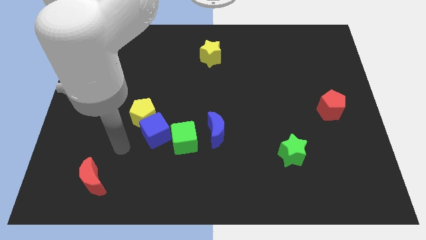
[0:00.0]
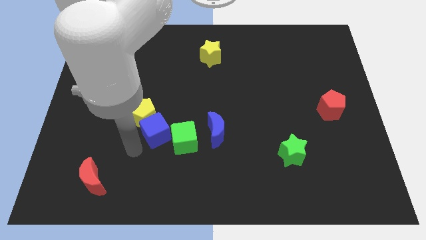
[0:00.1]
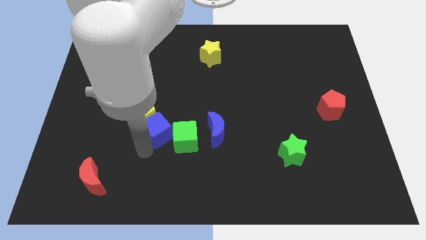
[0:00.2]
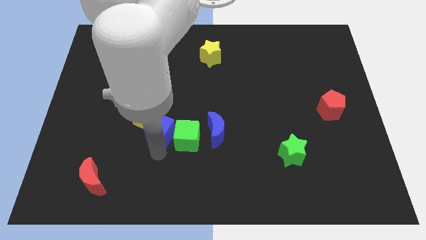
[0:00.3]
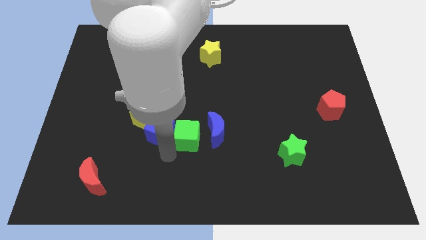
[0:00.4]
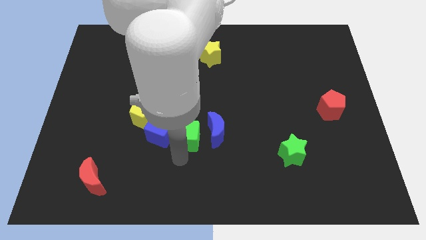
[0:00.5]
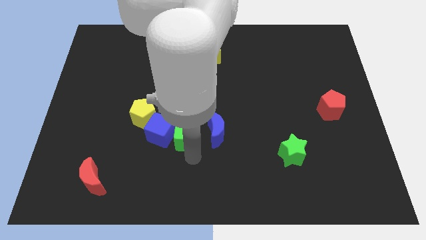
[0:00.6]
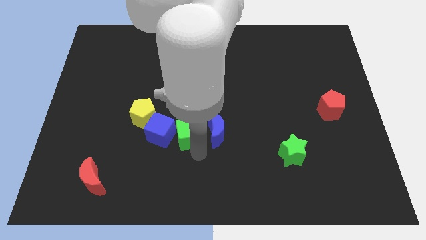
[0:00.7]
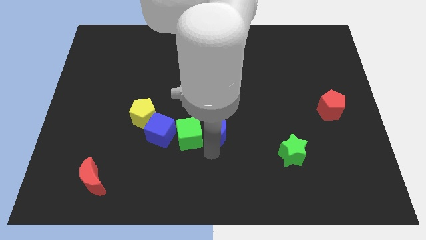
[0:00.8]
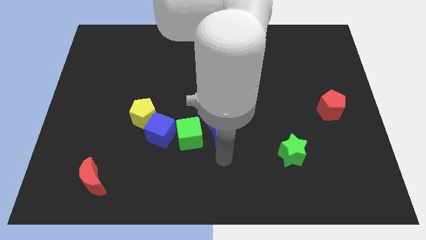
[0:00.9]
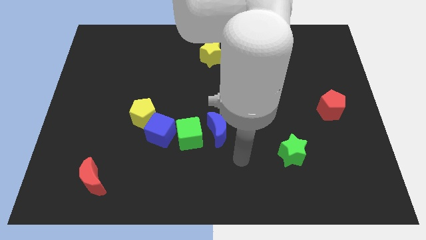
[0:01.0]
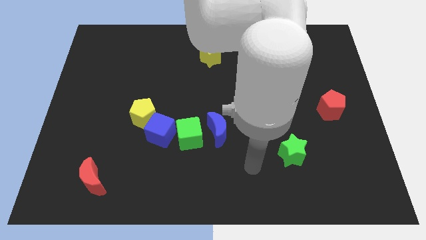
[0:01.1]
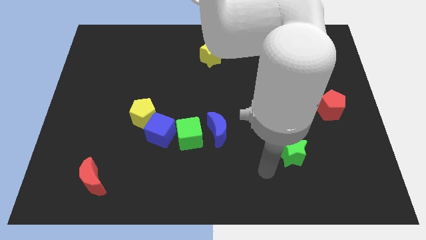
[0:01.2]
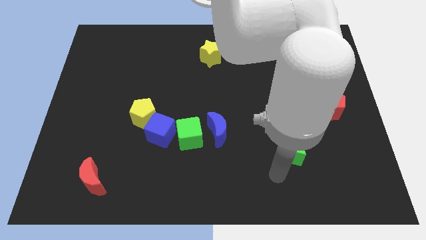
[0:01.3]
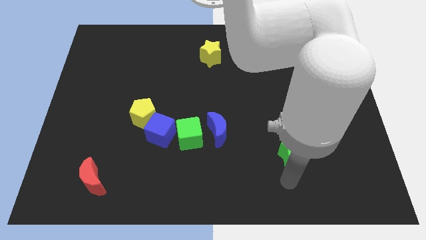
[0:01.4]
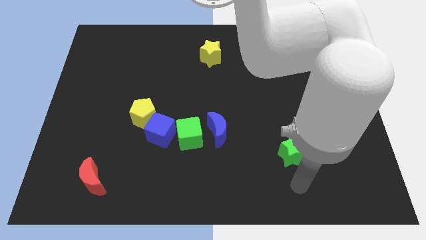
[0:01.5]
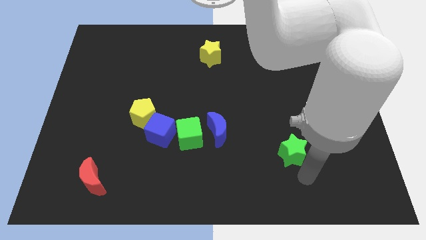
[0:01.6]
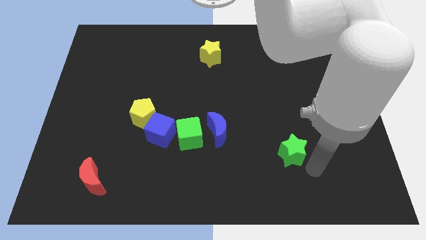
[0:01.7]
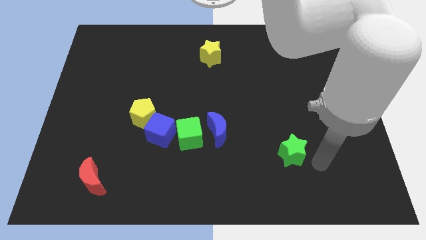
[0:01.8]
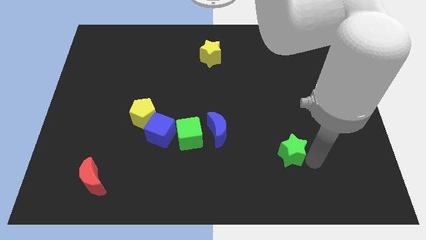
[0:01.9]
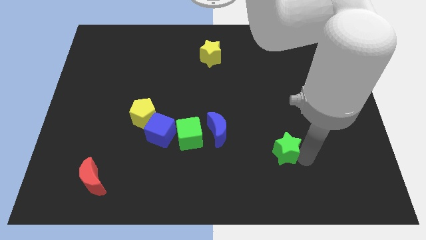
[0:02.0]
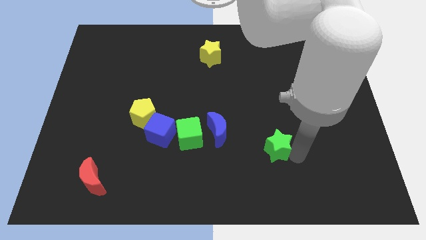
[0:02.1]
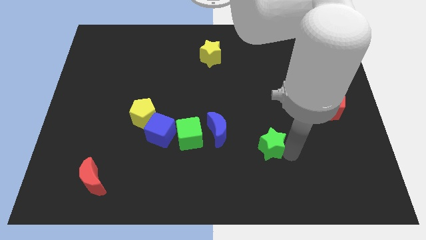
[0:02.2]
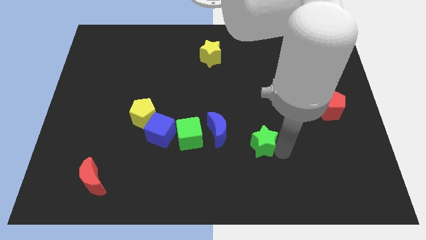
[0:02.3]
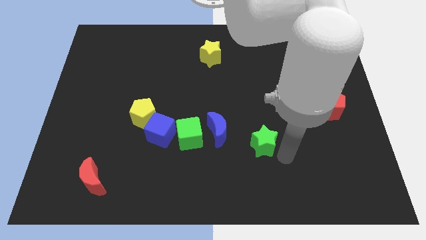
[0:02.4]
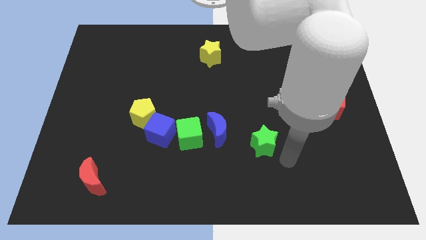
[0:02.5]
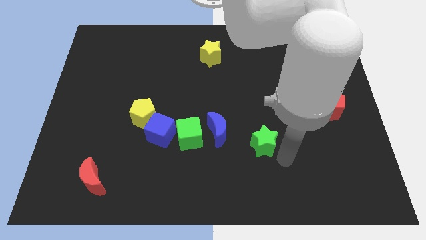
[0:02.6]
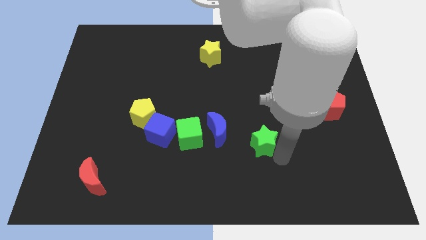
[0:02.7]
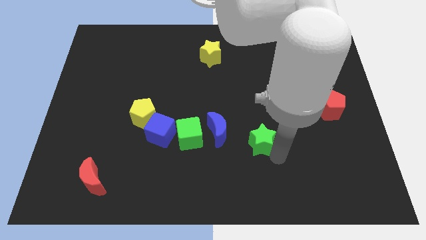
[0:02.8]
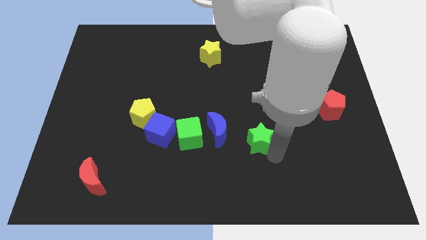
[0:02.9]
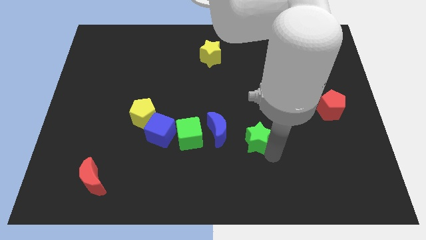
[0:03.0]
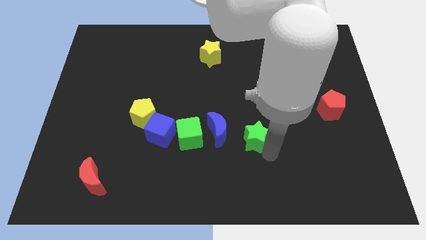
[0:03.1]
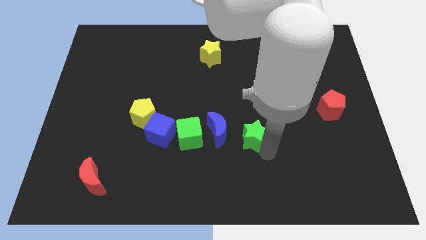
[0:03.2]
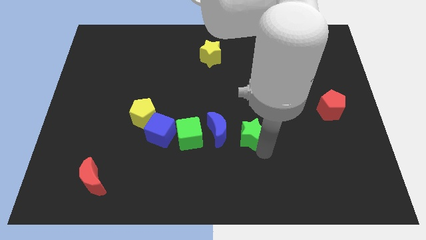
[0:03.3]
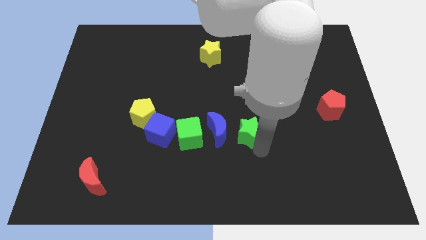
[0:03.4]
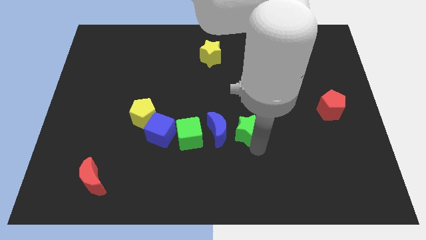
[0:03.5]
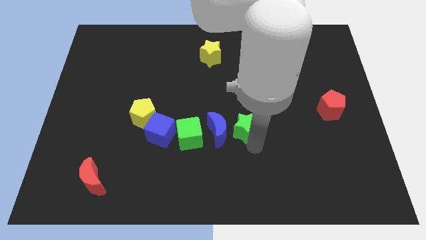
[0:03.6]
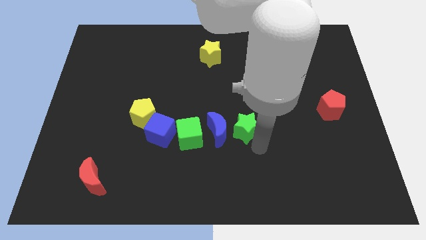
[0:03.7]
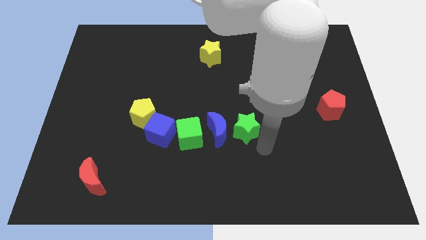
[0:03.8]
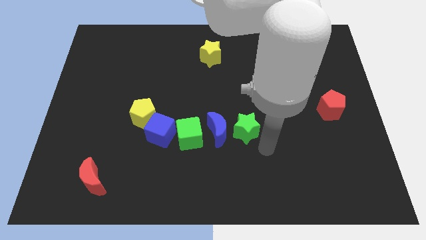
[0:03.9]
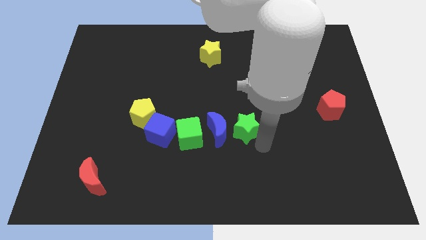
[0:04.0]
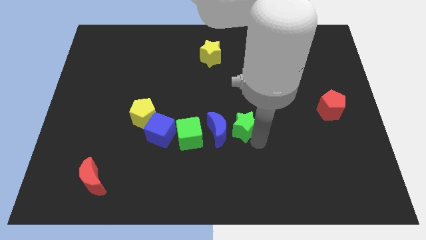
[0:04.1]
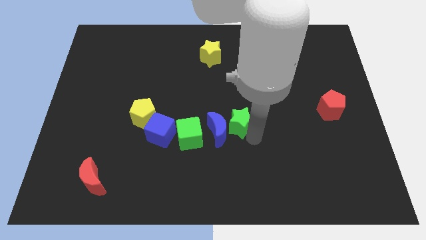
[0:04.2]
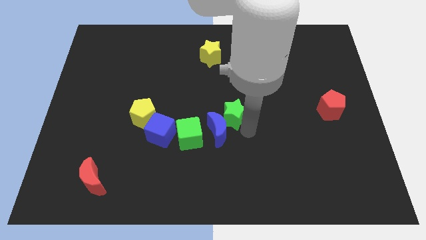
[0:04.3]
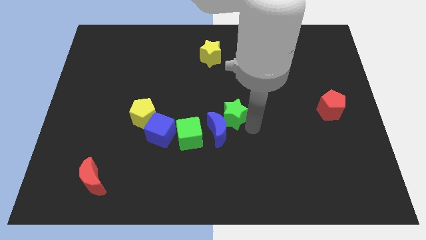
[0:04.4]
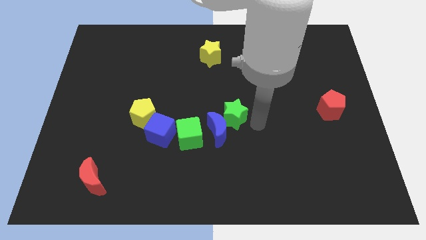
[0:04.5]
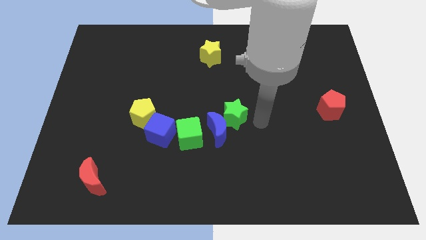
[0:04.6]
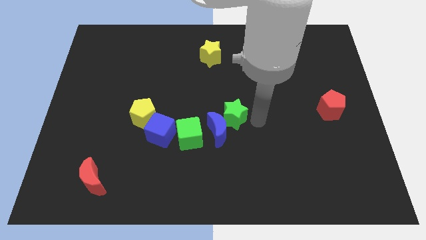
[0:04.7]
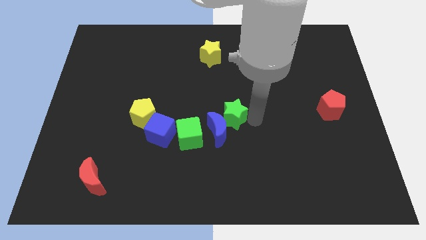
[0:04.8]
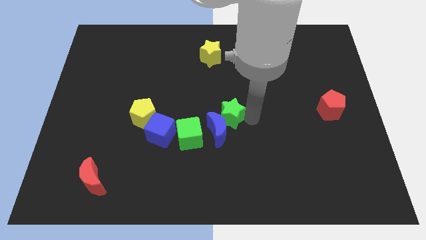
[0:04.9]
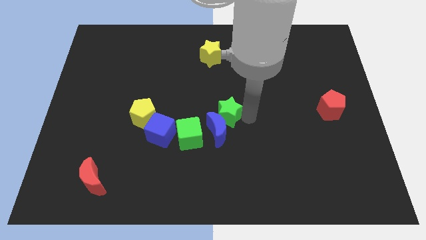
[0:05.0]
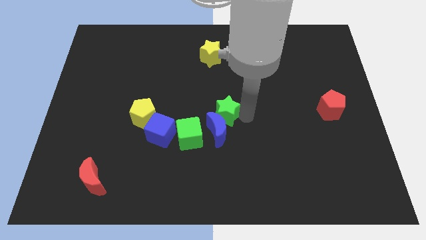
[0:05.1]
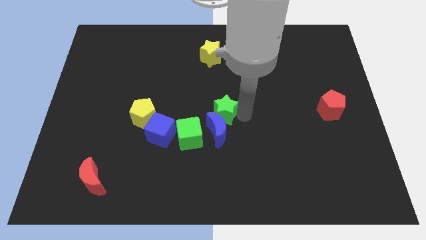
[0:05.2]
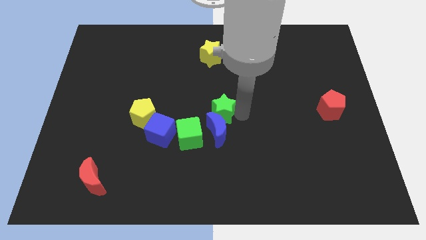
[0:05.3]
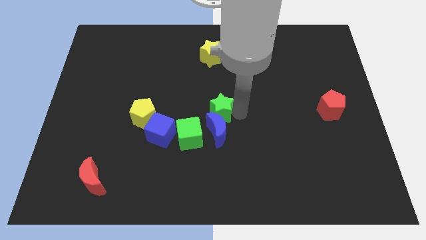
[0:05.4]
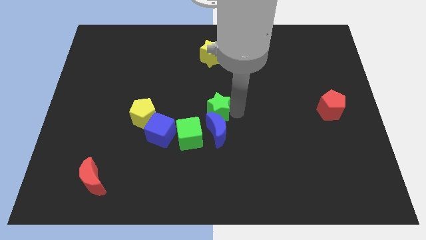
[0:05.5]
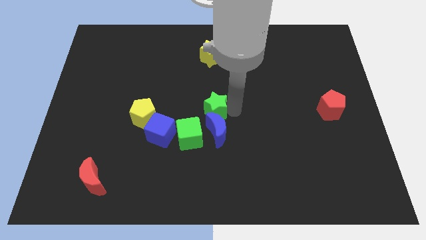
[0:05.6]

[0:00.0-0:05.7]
move the green star right of the yellow pentagon

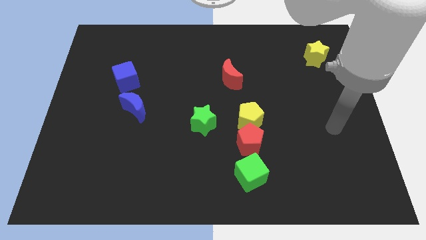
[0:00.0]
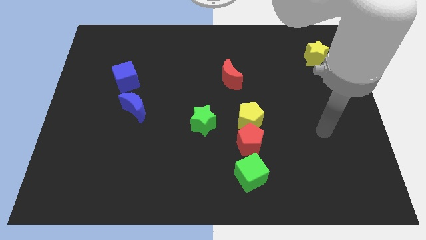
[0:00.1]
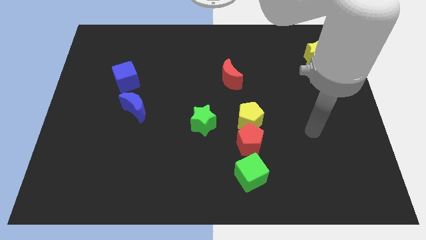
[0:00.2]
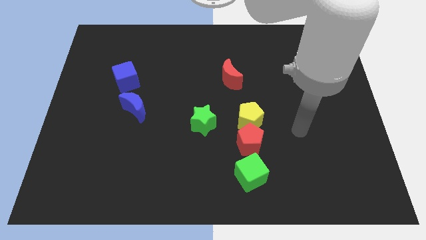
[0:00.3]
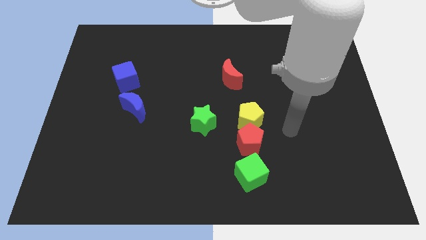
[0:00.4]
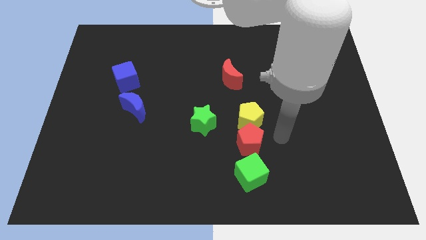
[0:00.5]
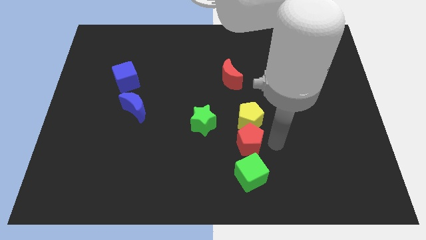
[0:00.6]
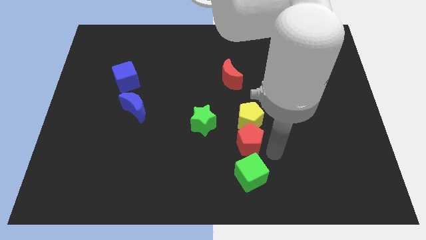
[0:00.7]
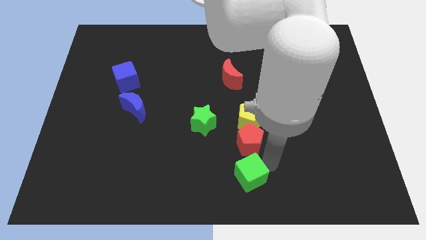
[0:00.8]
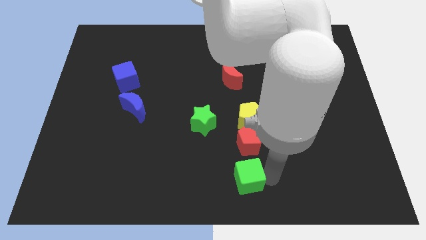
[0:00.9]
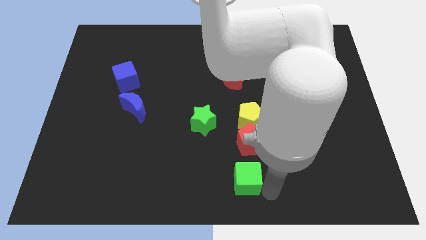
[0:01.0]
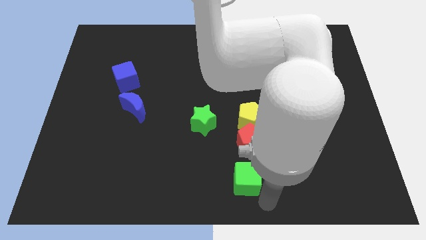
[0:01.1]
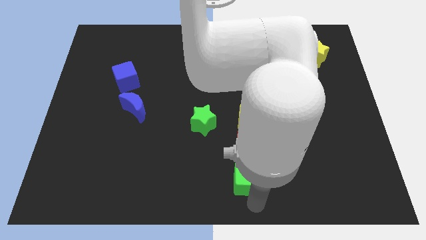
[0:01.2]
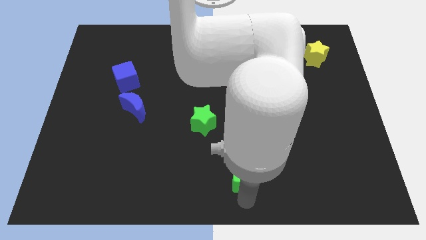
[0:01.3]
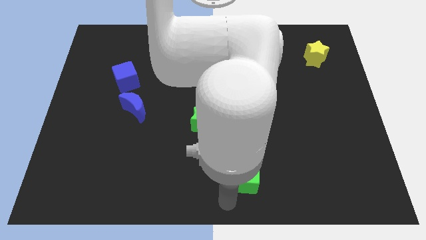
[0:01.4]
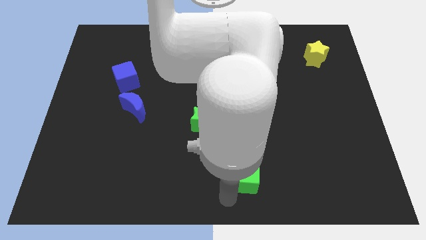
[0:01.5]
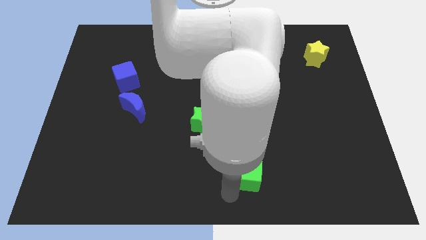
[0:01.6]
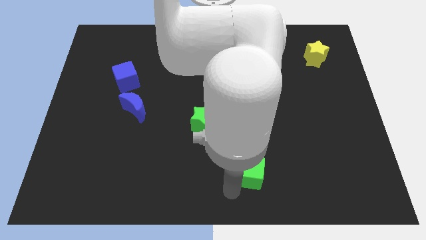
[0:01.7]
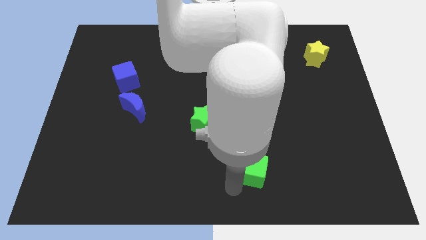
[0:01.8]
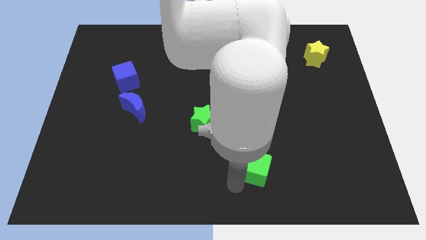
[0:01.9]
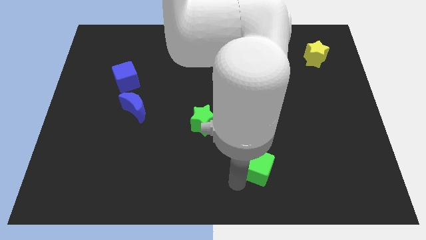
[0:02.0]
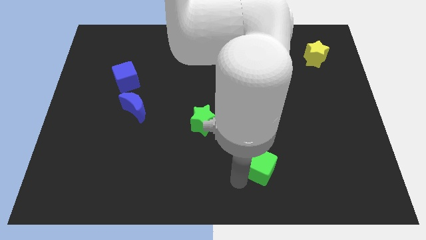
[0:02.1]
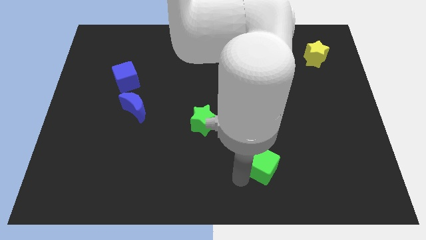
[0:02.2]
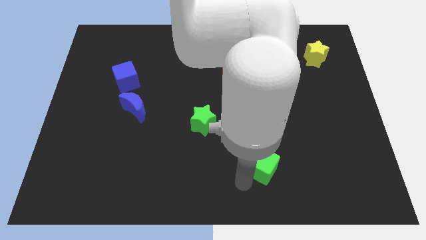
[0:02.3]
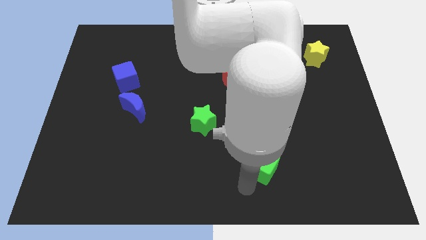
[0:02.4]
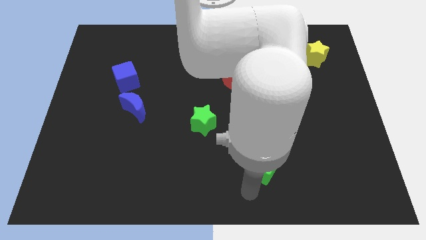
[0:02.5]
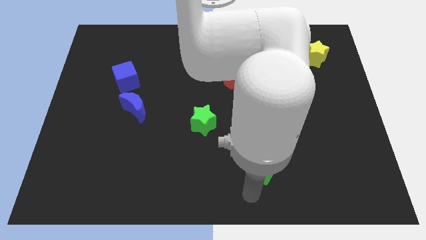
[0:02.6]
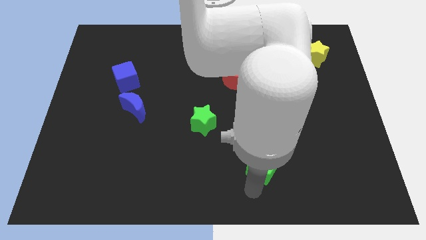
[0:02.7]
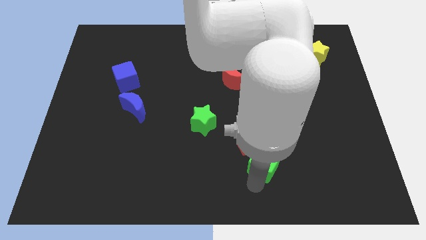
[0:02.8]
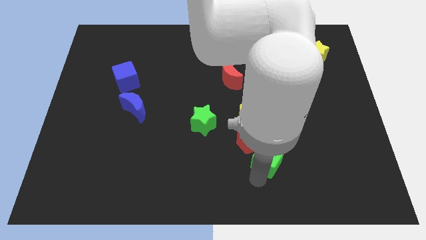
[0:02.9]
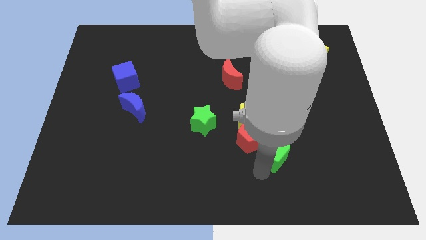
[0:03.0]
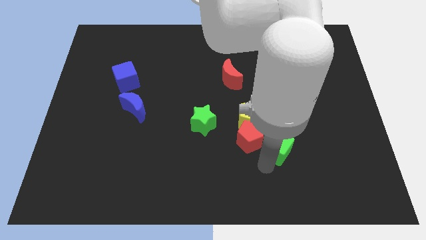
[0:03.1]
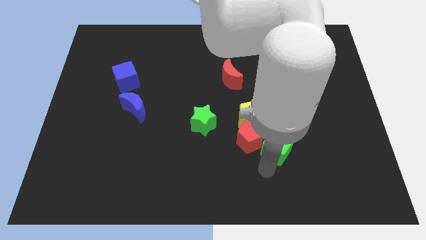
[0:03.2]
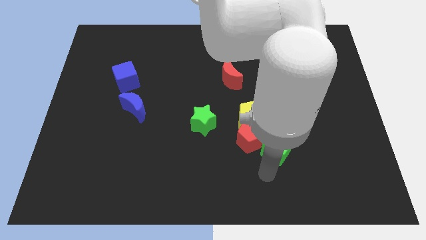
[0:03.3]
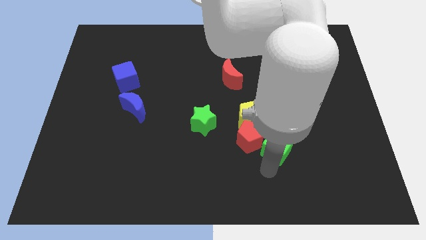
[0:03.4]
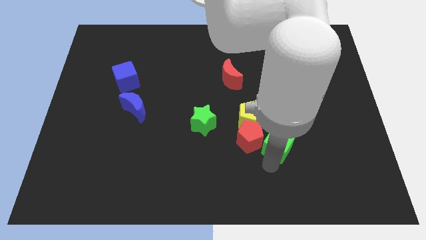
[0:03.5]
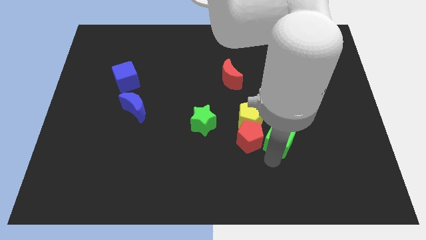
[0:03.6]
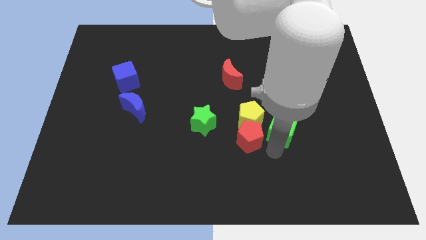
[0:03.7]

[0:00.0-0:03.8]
push the green cube to the right side of the yellow pentagon
